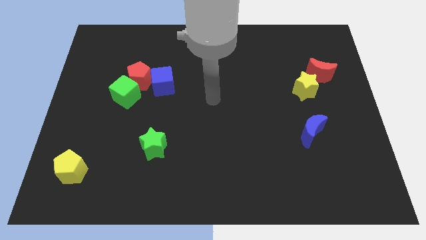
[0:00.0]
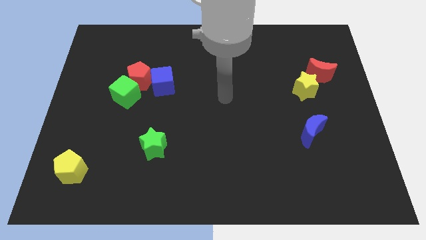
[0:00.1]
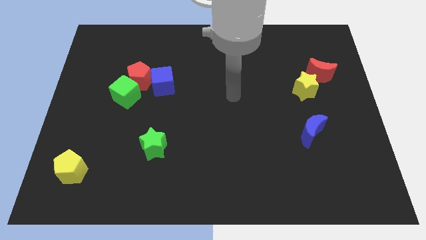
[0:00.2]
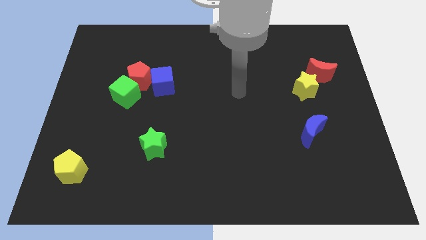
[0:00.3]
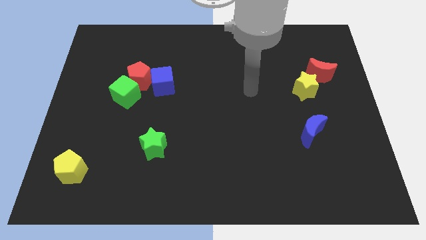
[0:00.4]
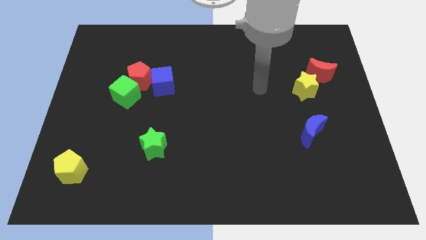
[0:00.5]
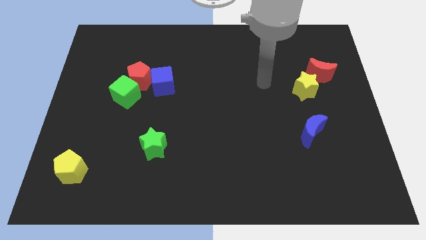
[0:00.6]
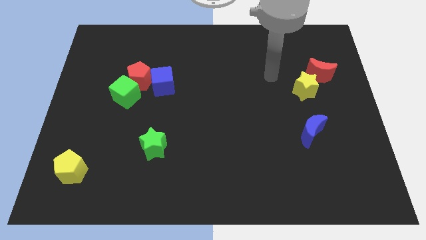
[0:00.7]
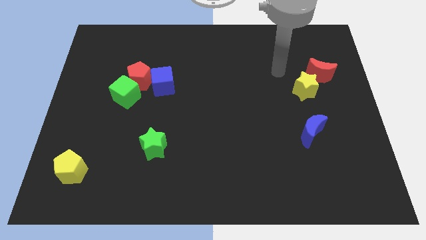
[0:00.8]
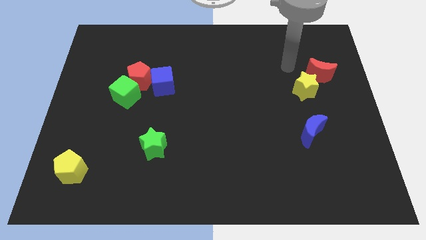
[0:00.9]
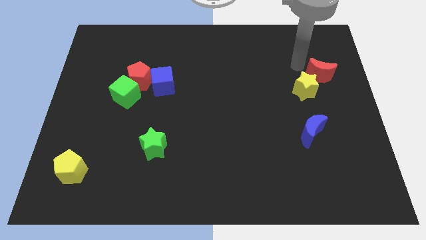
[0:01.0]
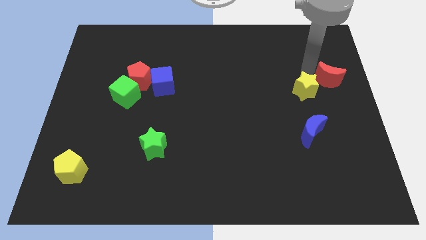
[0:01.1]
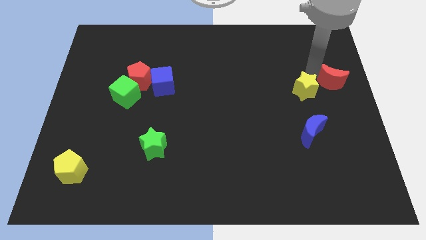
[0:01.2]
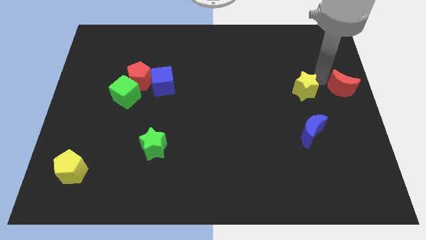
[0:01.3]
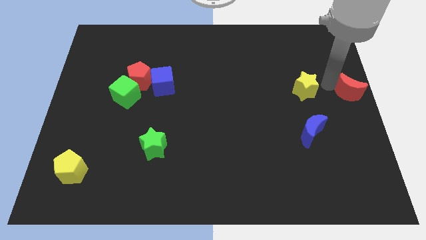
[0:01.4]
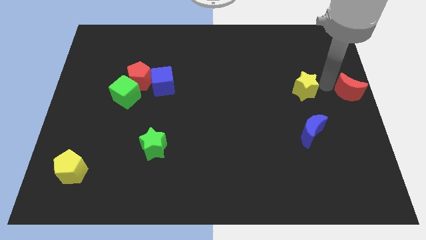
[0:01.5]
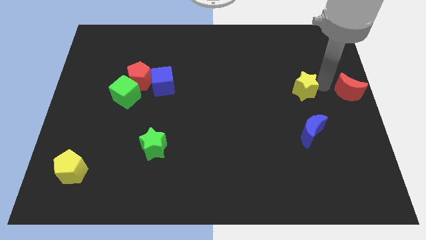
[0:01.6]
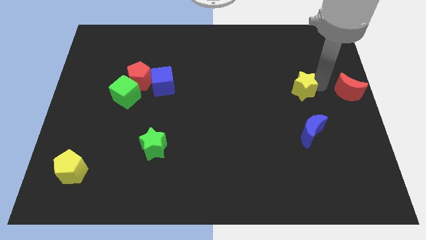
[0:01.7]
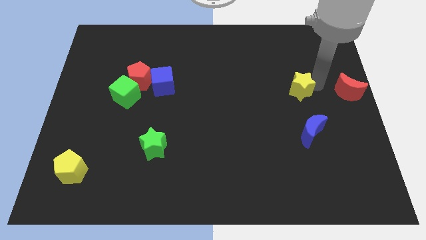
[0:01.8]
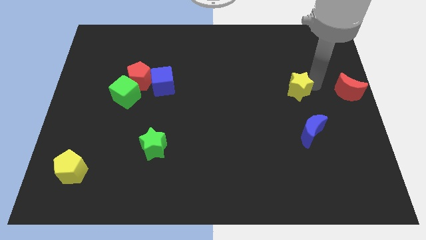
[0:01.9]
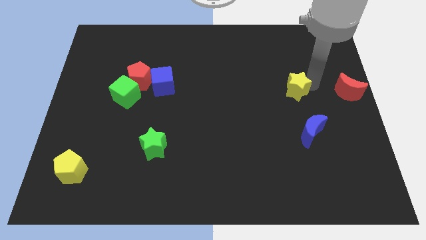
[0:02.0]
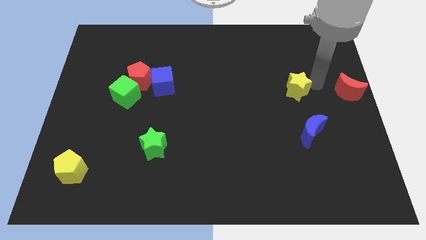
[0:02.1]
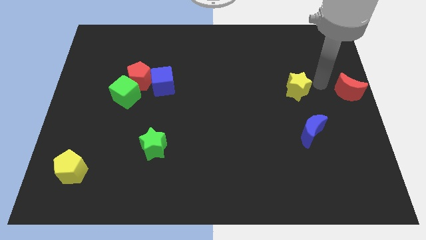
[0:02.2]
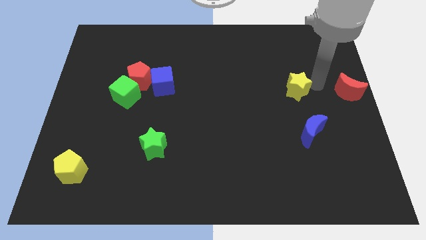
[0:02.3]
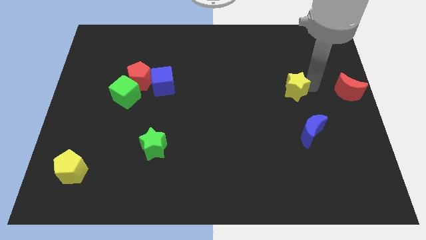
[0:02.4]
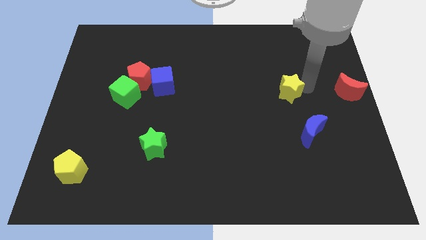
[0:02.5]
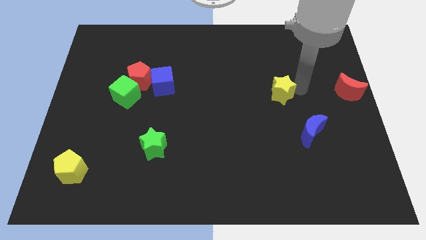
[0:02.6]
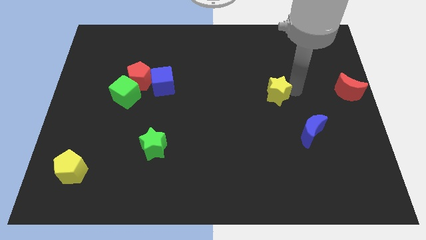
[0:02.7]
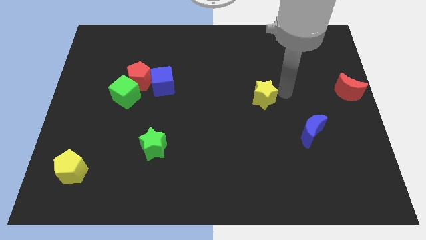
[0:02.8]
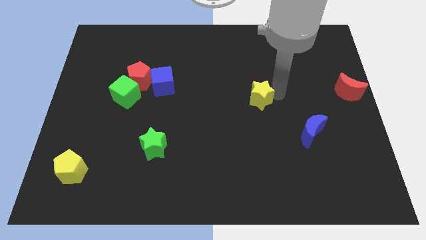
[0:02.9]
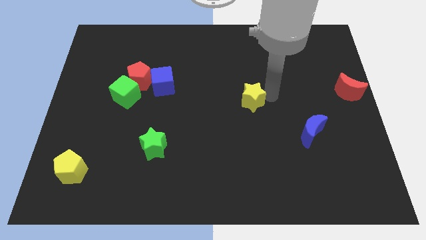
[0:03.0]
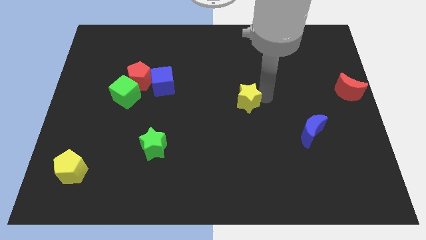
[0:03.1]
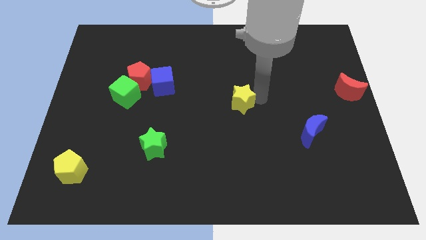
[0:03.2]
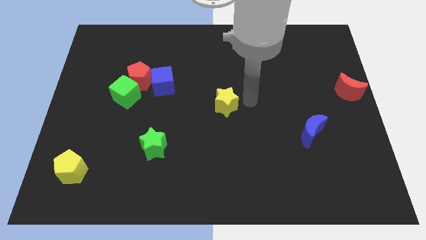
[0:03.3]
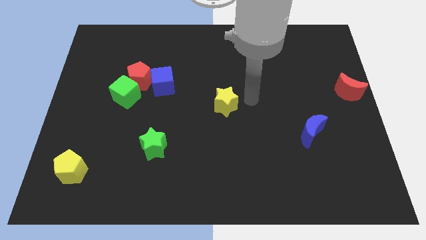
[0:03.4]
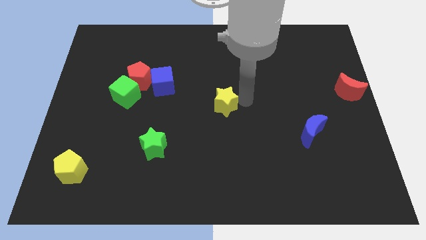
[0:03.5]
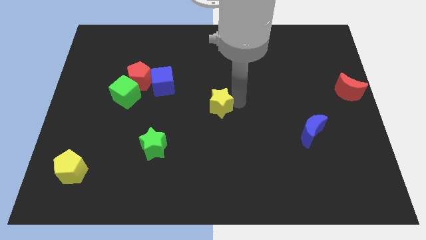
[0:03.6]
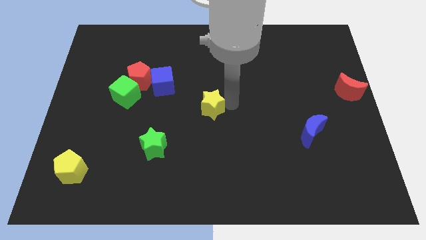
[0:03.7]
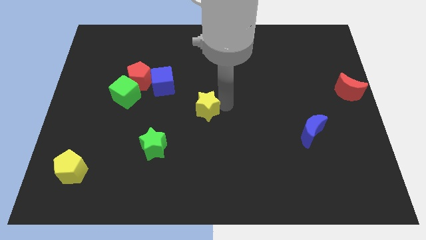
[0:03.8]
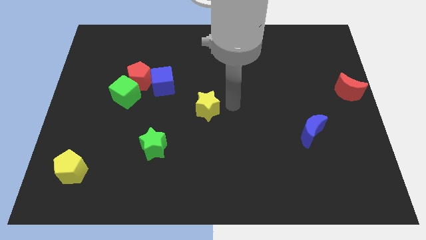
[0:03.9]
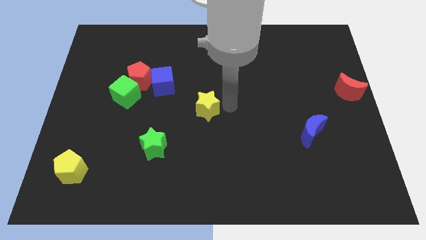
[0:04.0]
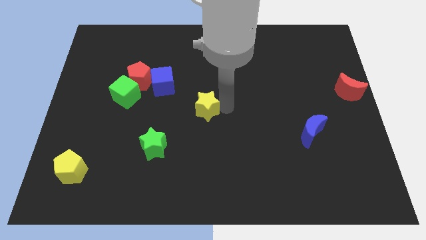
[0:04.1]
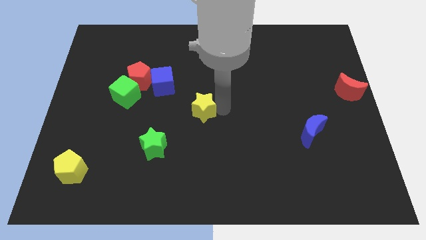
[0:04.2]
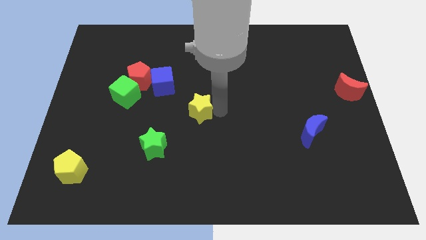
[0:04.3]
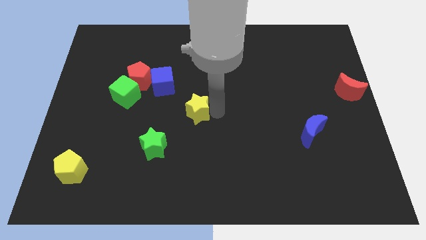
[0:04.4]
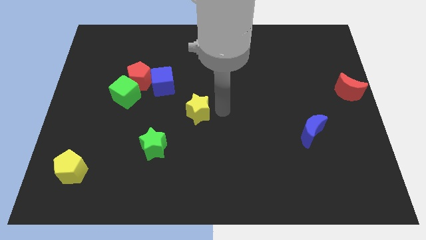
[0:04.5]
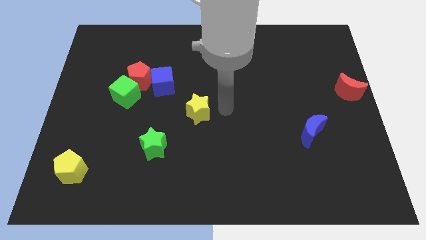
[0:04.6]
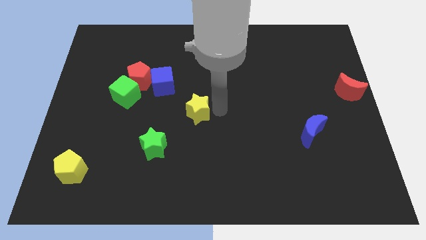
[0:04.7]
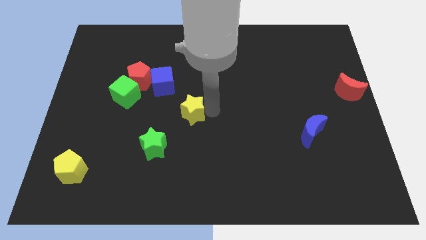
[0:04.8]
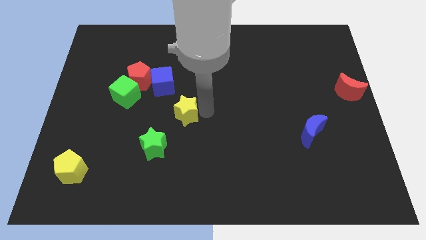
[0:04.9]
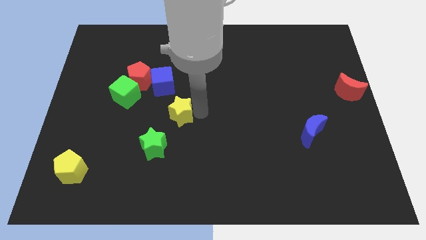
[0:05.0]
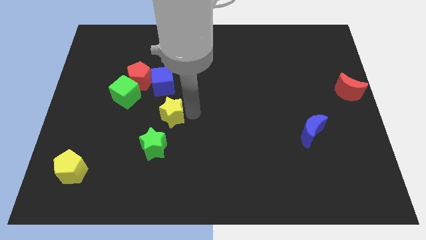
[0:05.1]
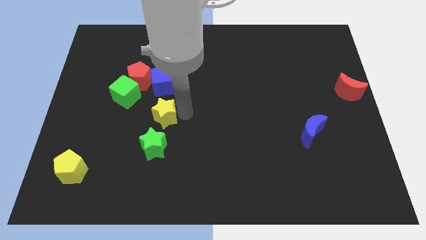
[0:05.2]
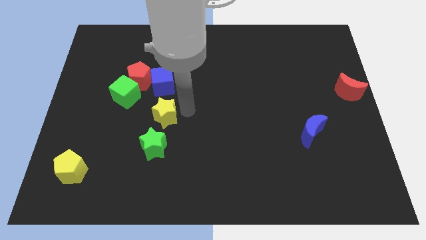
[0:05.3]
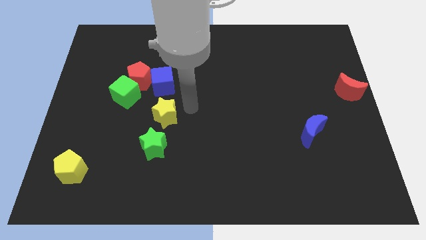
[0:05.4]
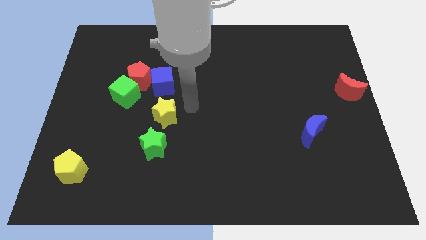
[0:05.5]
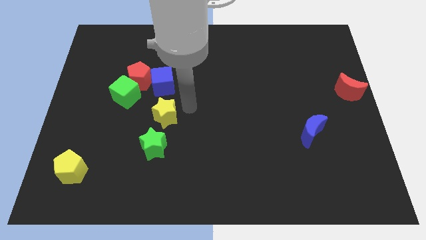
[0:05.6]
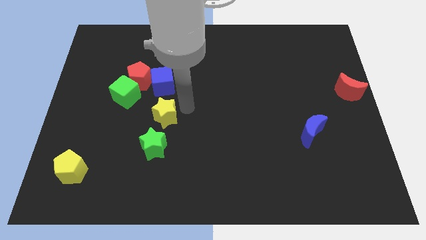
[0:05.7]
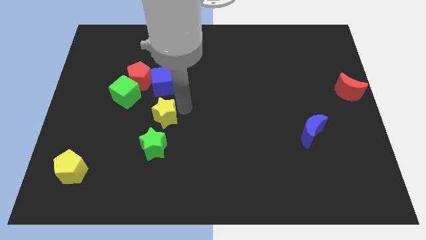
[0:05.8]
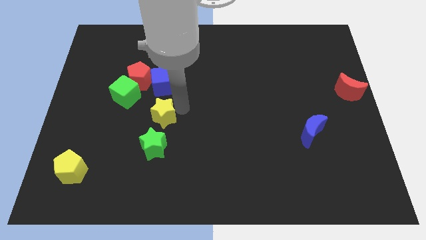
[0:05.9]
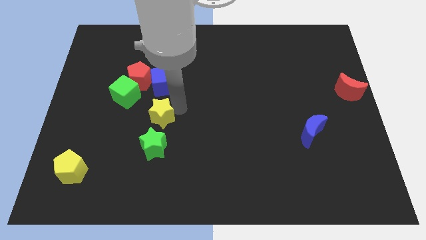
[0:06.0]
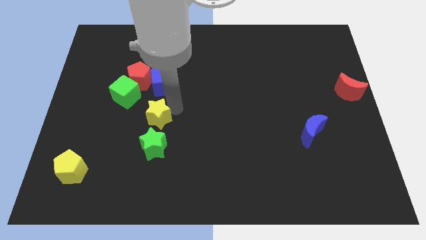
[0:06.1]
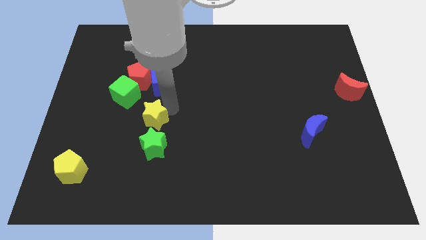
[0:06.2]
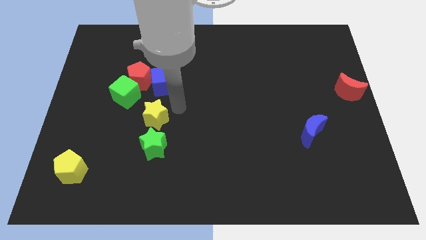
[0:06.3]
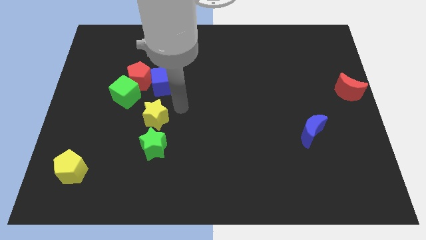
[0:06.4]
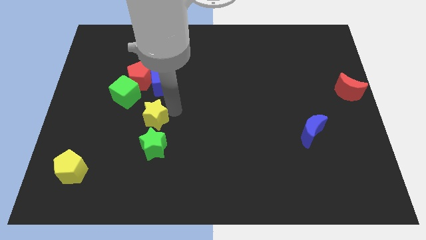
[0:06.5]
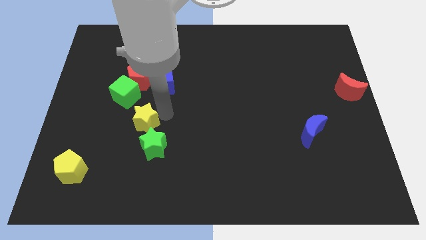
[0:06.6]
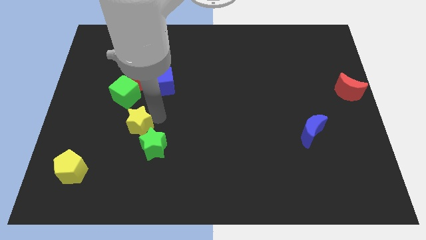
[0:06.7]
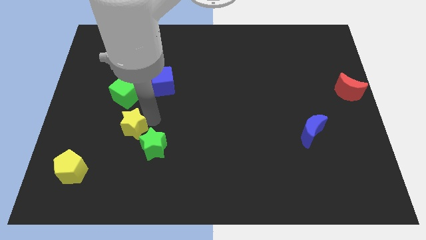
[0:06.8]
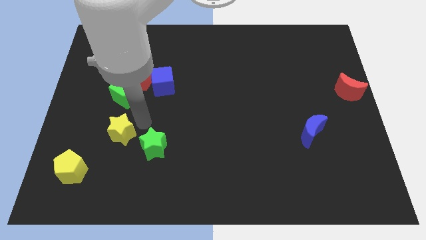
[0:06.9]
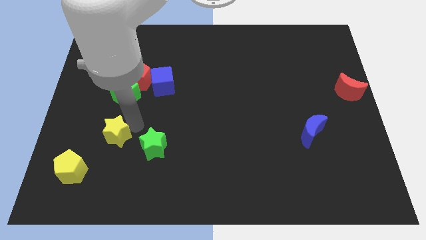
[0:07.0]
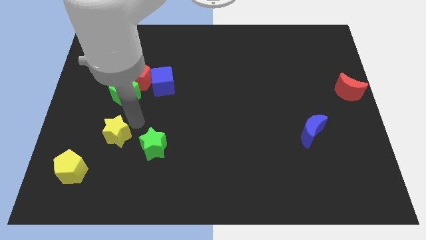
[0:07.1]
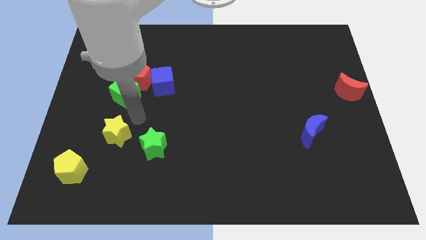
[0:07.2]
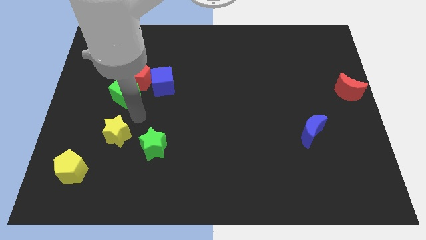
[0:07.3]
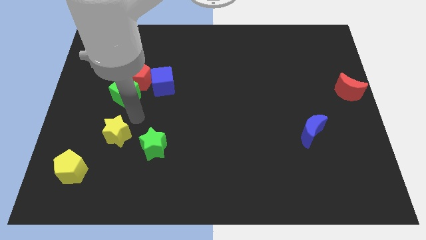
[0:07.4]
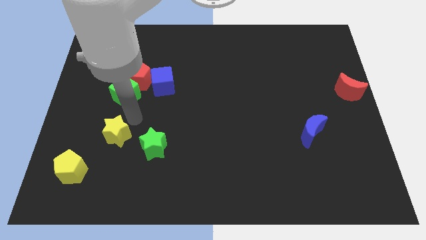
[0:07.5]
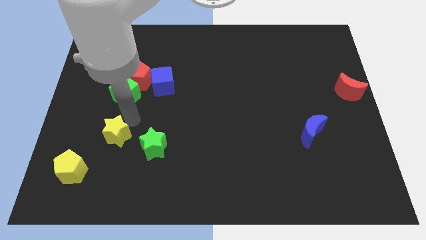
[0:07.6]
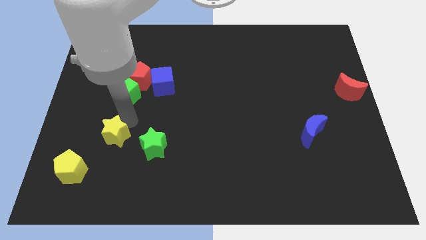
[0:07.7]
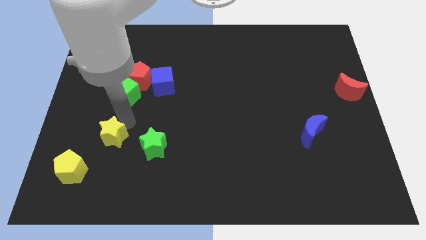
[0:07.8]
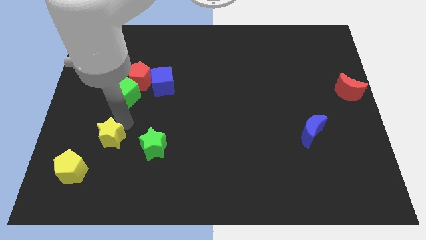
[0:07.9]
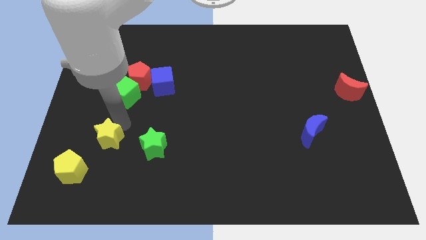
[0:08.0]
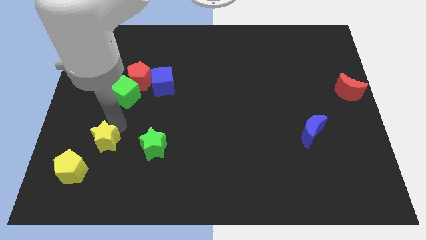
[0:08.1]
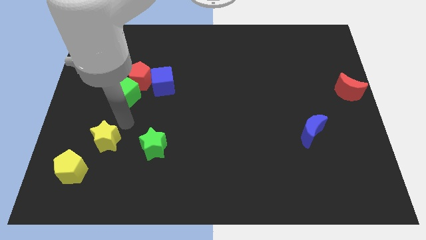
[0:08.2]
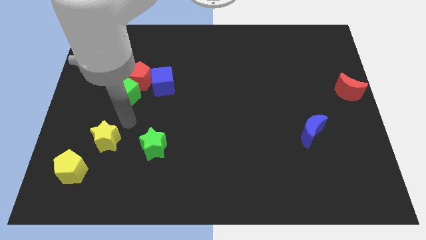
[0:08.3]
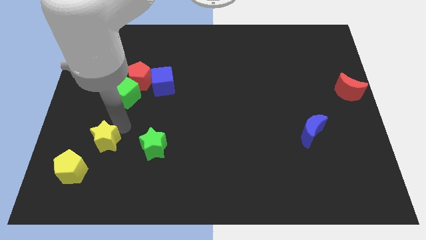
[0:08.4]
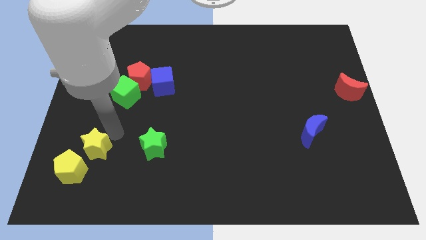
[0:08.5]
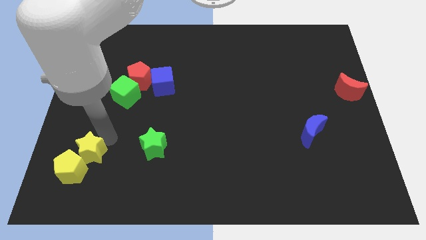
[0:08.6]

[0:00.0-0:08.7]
put the yellow star close to the yellow pentagon
